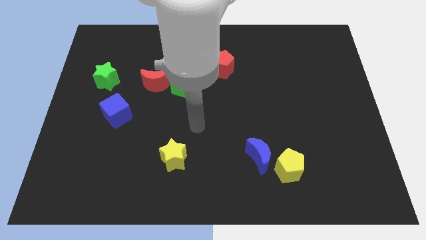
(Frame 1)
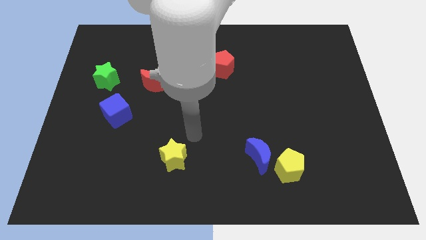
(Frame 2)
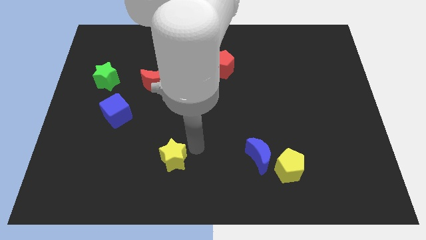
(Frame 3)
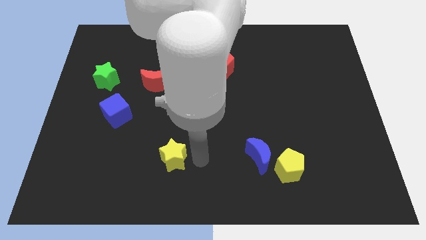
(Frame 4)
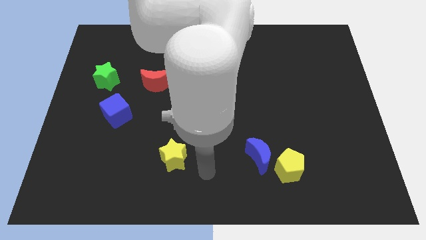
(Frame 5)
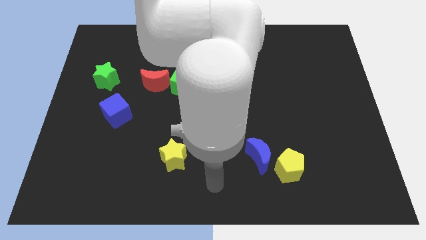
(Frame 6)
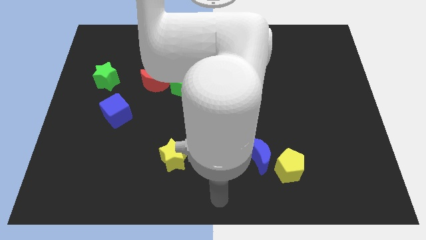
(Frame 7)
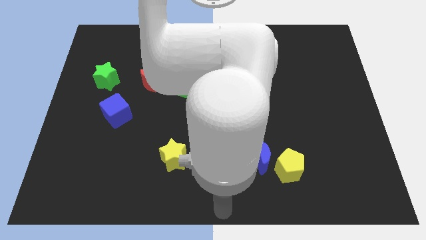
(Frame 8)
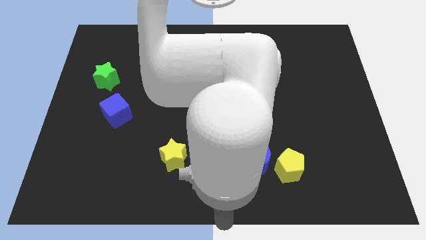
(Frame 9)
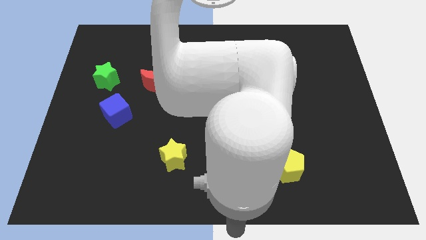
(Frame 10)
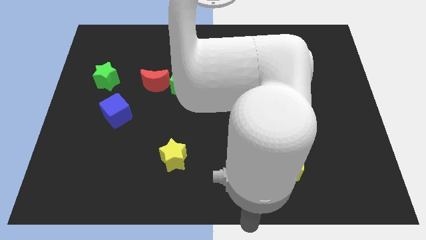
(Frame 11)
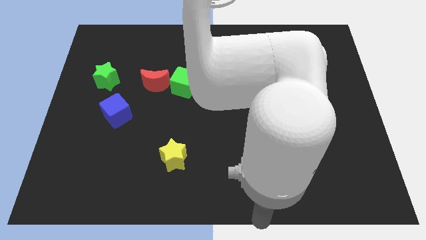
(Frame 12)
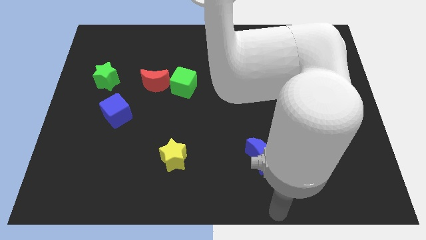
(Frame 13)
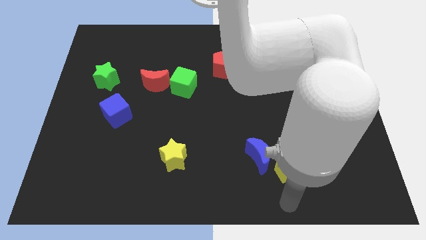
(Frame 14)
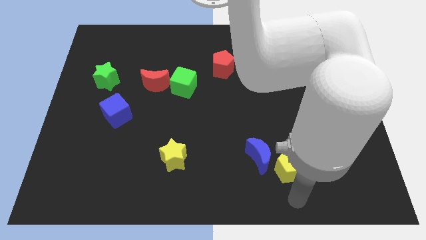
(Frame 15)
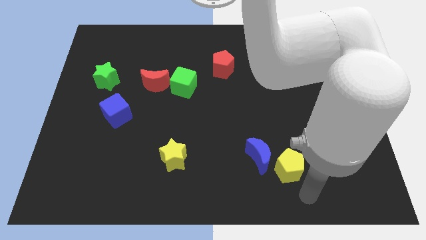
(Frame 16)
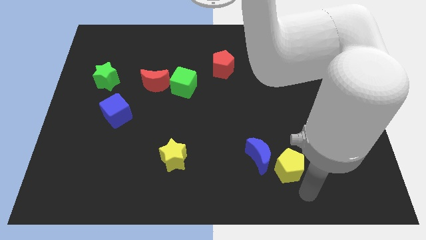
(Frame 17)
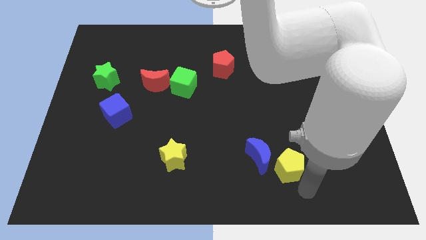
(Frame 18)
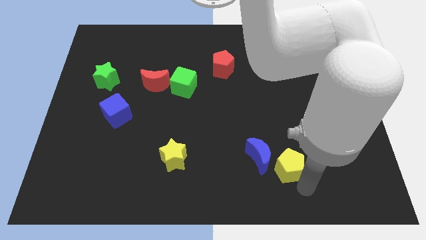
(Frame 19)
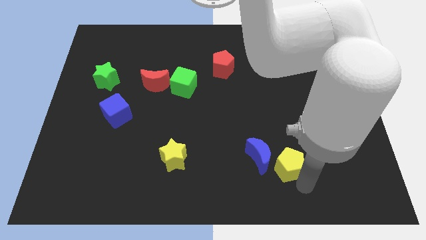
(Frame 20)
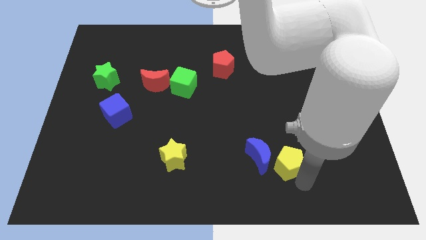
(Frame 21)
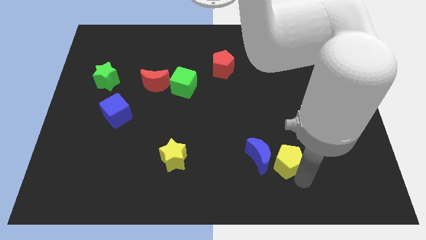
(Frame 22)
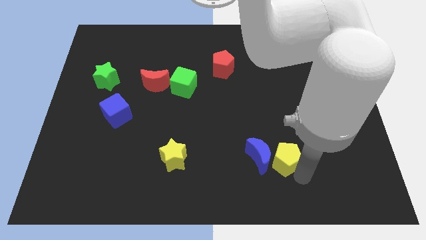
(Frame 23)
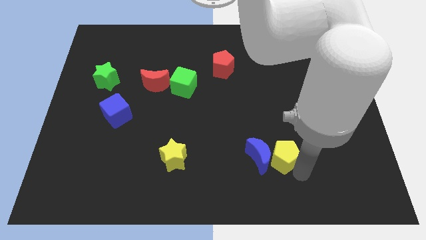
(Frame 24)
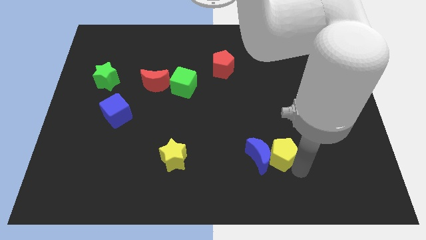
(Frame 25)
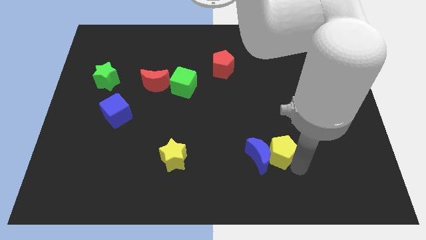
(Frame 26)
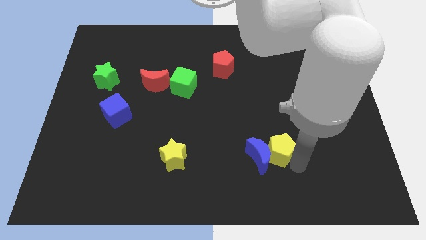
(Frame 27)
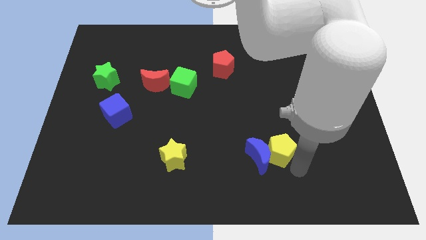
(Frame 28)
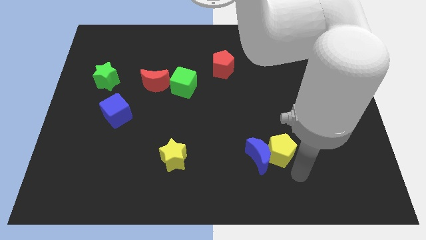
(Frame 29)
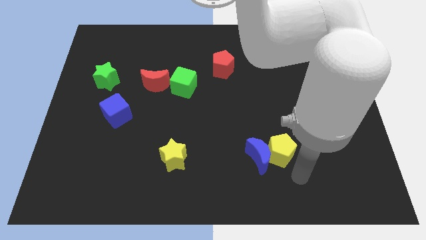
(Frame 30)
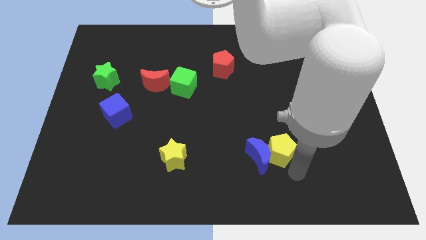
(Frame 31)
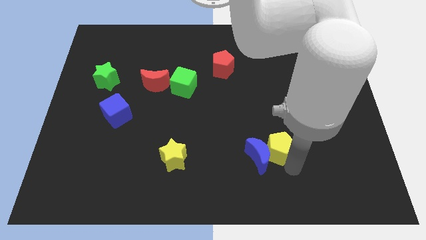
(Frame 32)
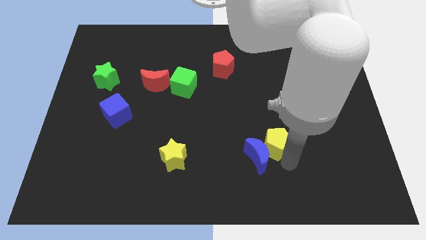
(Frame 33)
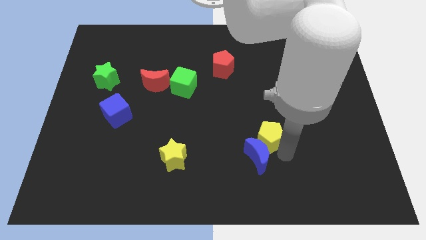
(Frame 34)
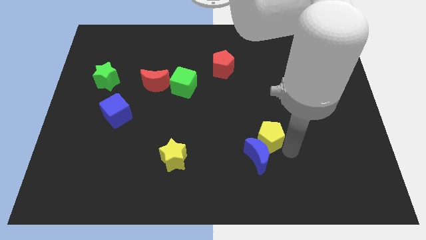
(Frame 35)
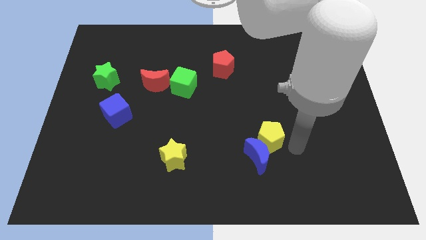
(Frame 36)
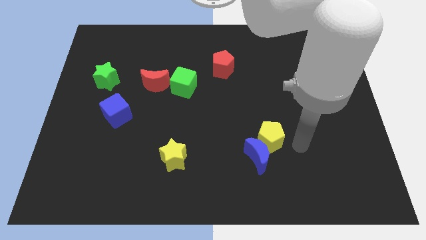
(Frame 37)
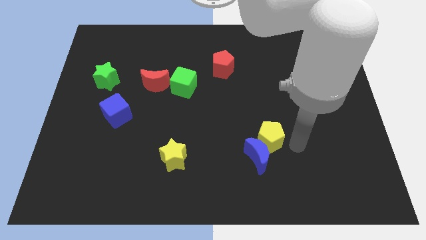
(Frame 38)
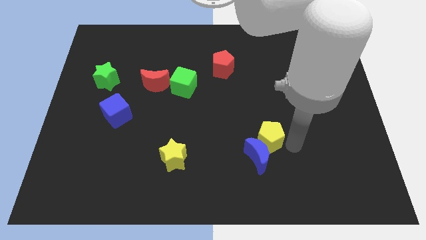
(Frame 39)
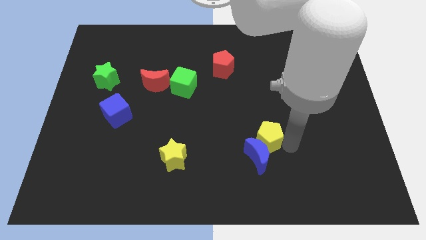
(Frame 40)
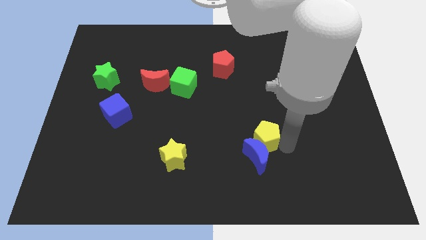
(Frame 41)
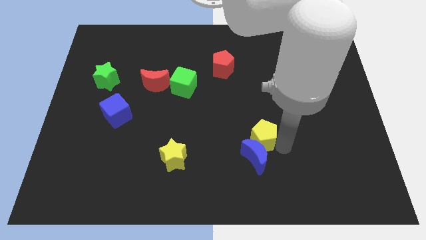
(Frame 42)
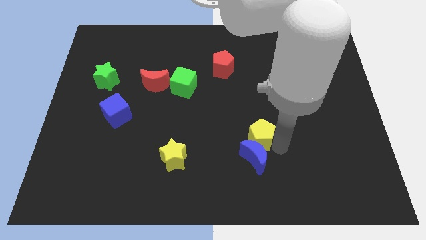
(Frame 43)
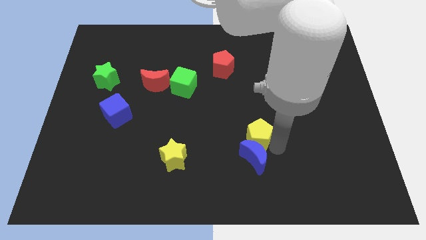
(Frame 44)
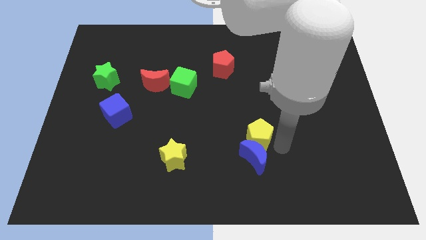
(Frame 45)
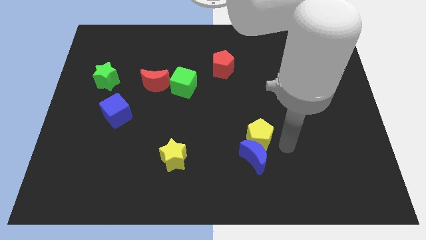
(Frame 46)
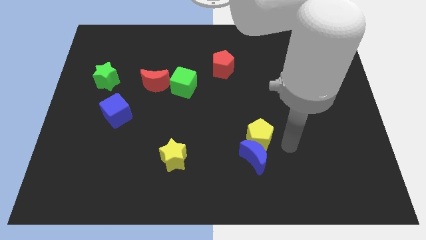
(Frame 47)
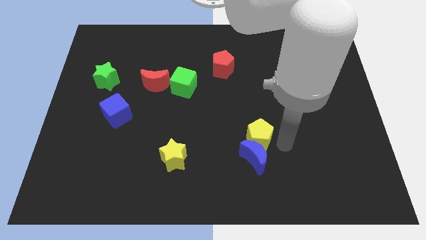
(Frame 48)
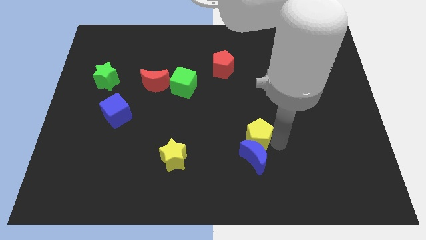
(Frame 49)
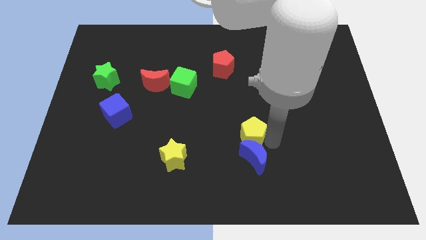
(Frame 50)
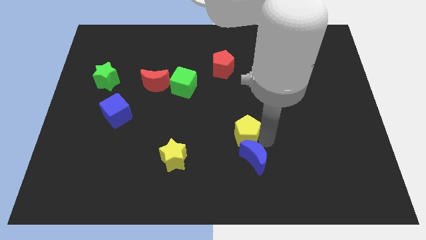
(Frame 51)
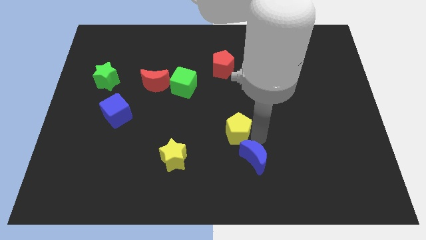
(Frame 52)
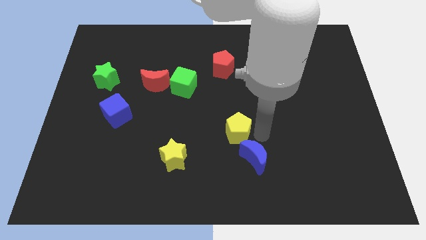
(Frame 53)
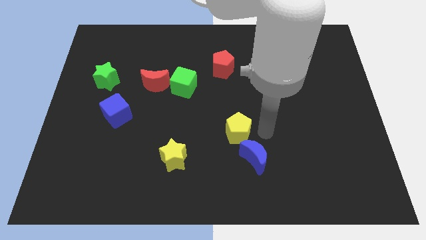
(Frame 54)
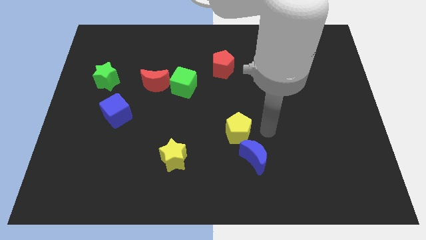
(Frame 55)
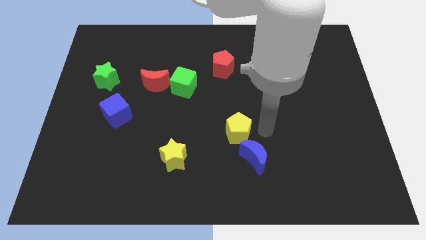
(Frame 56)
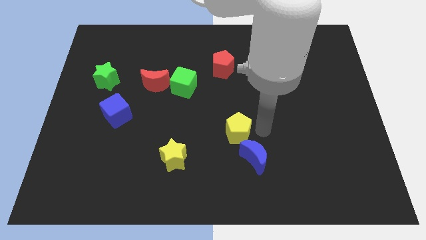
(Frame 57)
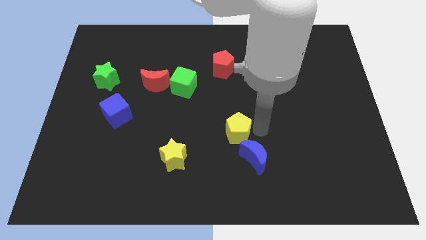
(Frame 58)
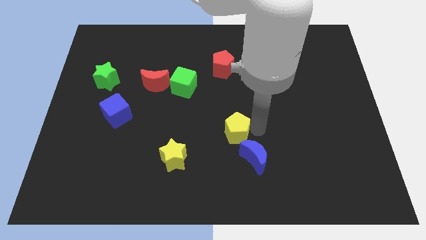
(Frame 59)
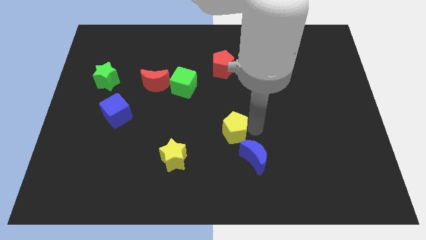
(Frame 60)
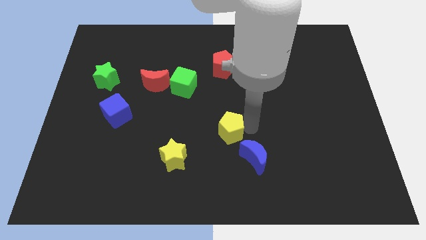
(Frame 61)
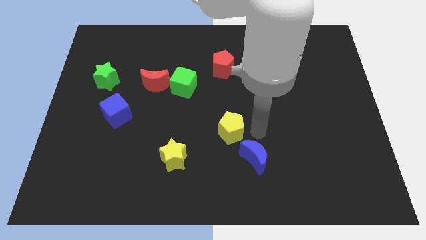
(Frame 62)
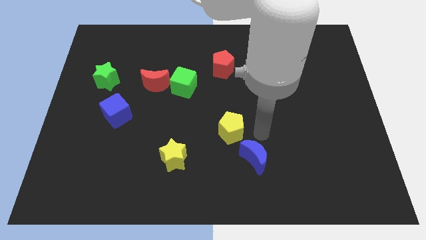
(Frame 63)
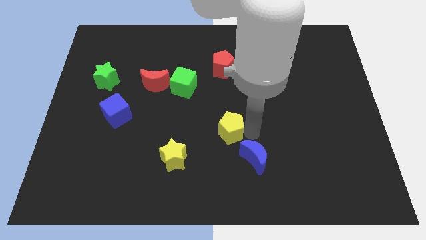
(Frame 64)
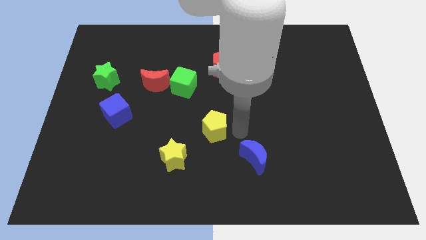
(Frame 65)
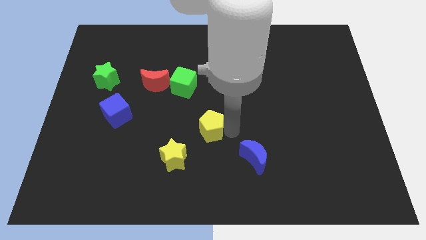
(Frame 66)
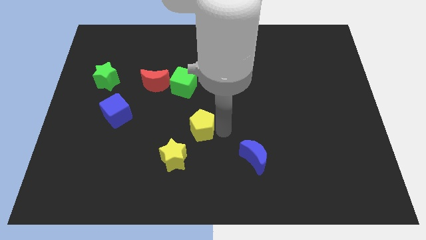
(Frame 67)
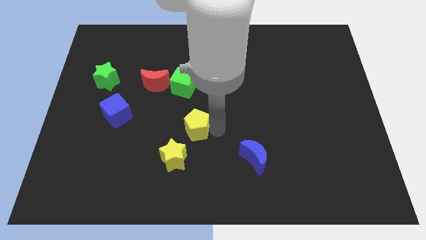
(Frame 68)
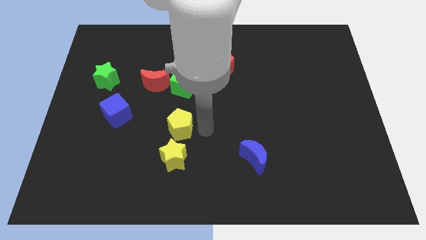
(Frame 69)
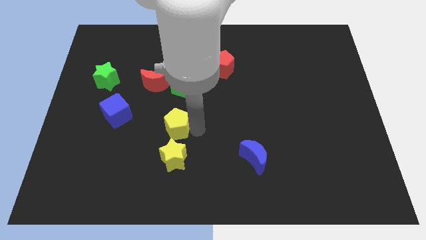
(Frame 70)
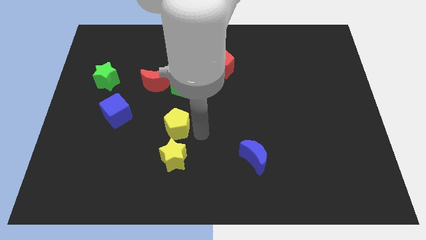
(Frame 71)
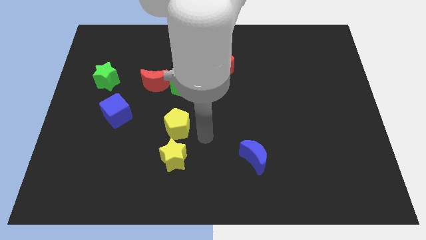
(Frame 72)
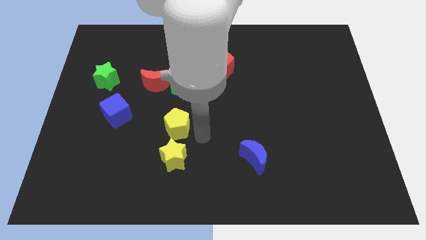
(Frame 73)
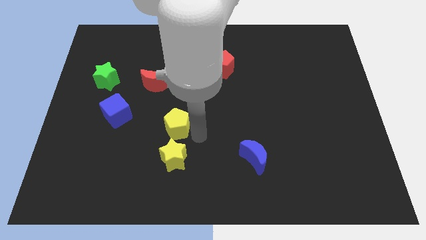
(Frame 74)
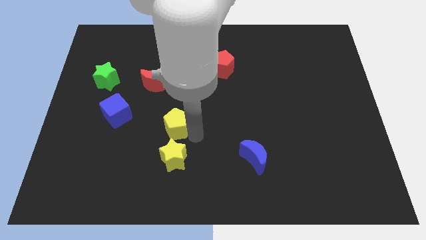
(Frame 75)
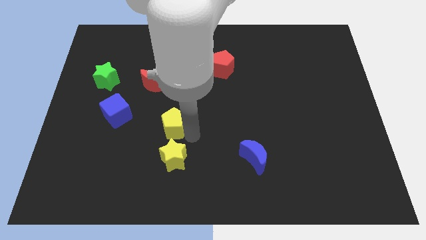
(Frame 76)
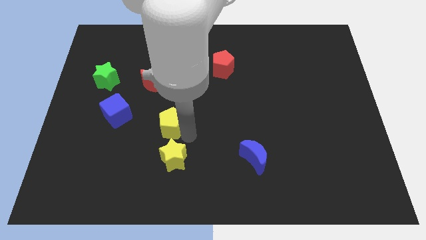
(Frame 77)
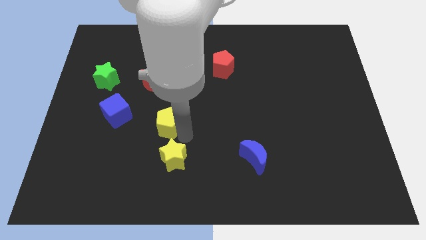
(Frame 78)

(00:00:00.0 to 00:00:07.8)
slide the yellow pentagon to the bottom side of the red moon
